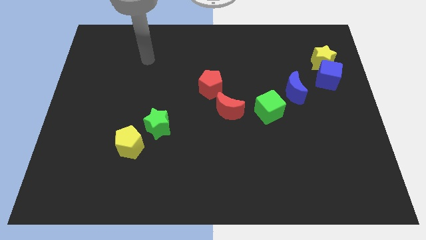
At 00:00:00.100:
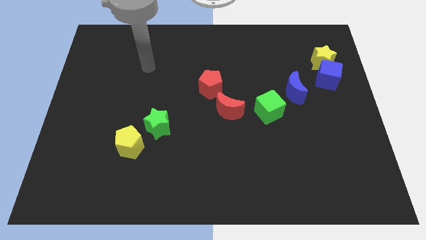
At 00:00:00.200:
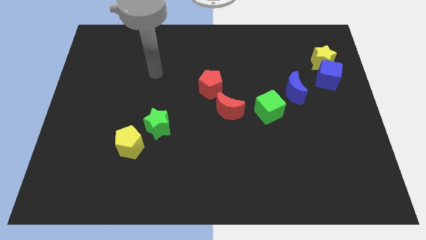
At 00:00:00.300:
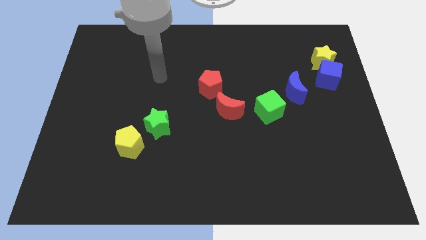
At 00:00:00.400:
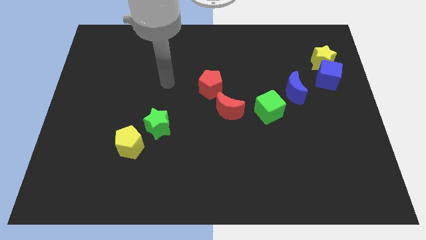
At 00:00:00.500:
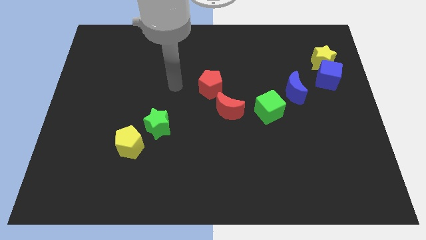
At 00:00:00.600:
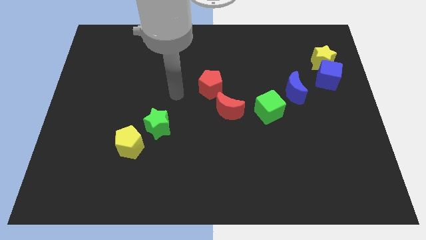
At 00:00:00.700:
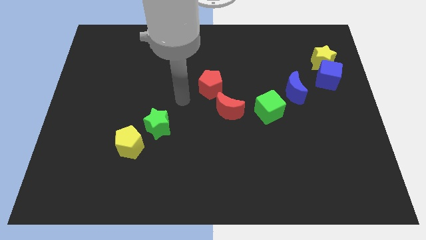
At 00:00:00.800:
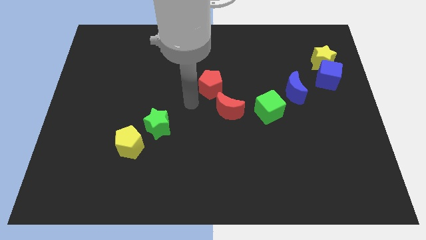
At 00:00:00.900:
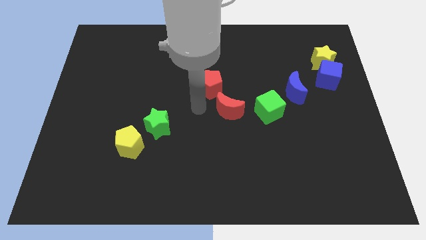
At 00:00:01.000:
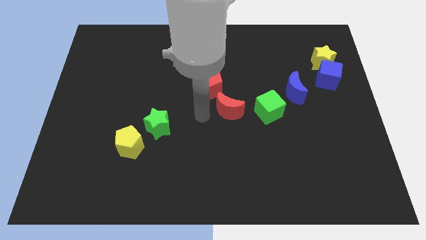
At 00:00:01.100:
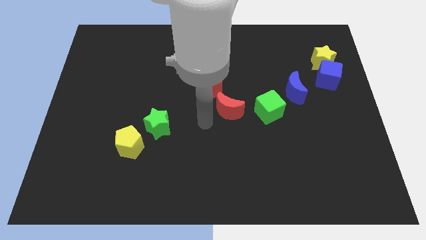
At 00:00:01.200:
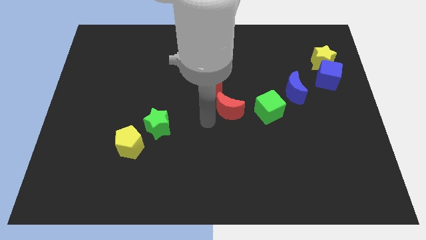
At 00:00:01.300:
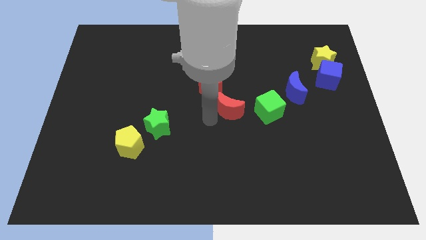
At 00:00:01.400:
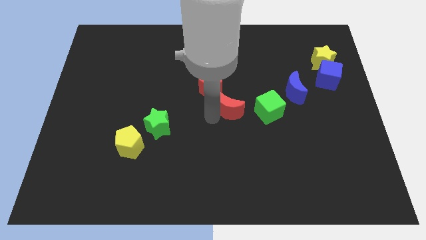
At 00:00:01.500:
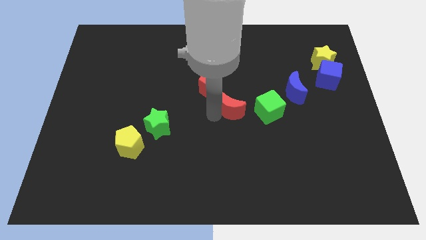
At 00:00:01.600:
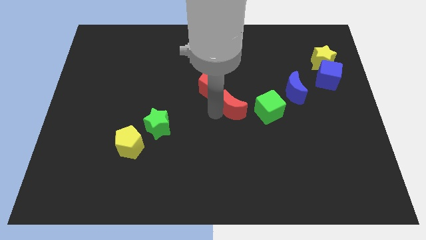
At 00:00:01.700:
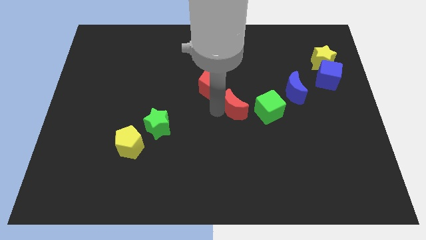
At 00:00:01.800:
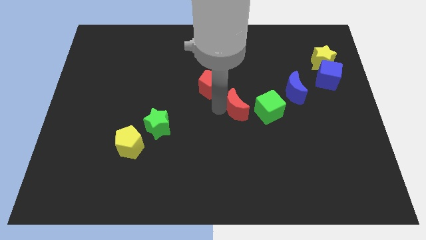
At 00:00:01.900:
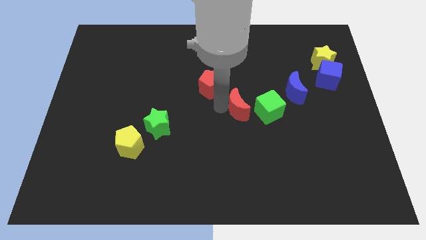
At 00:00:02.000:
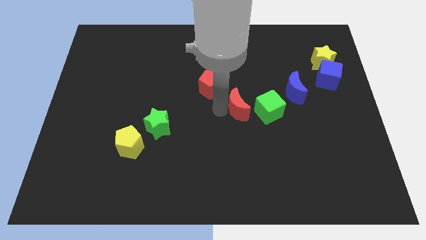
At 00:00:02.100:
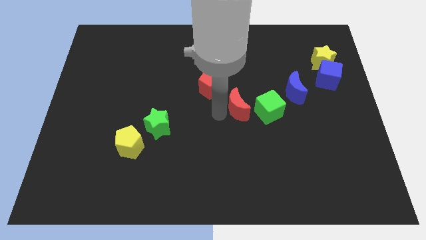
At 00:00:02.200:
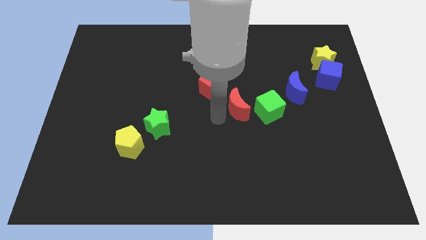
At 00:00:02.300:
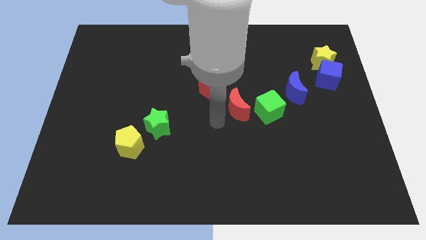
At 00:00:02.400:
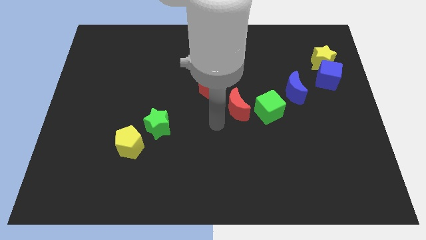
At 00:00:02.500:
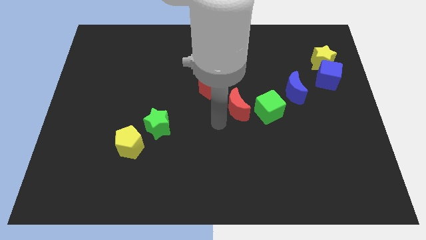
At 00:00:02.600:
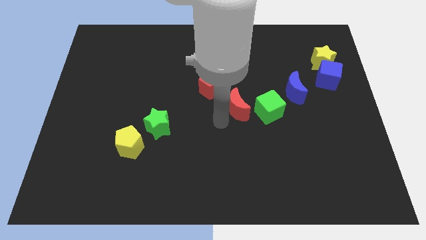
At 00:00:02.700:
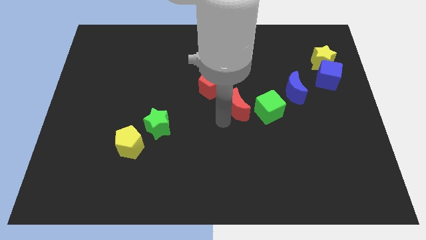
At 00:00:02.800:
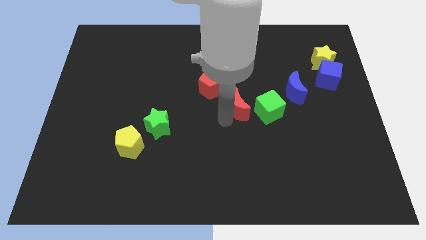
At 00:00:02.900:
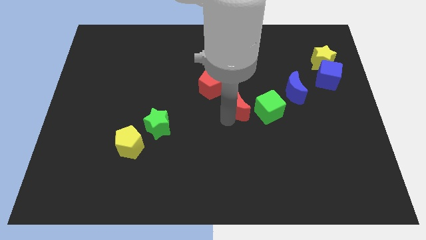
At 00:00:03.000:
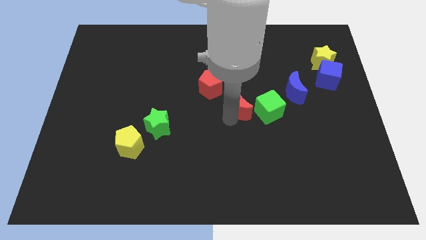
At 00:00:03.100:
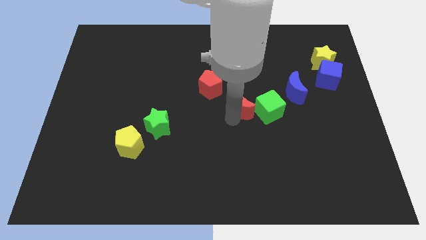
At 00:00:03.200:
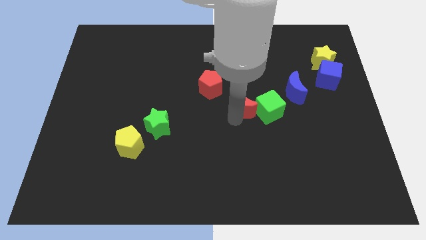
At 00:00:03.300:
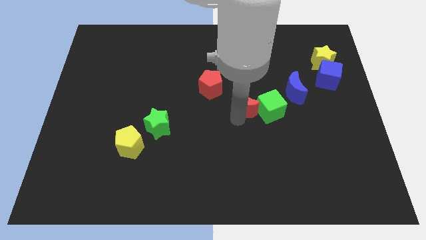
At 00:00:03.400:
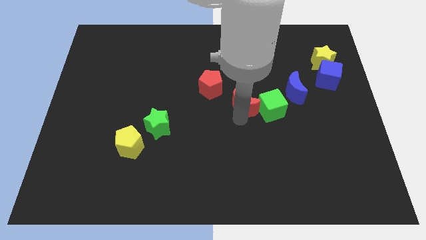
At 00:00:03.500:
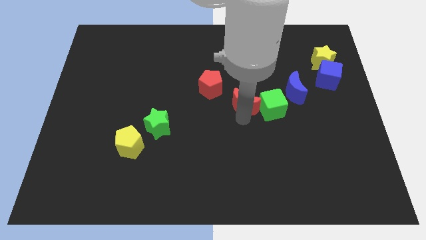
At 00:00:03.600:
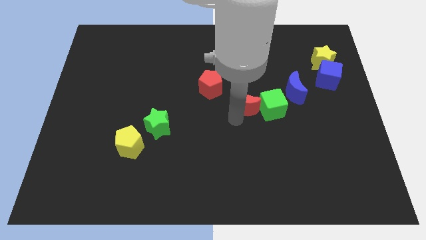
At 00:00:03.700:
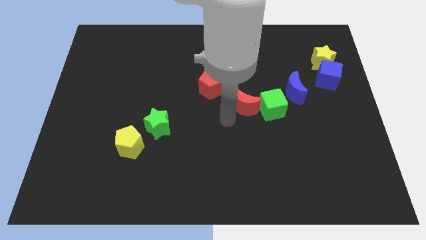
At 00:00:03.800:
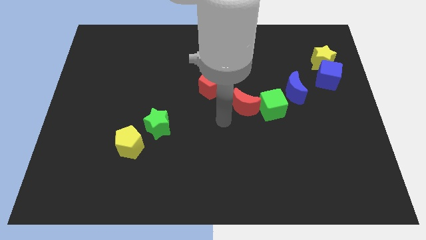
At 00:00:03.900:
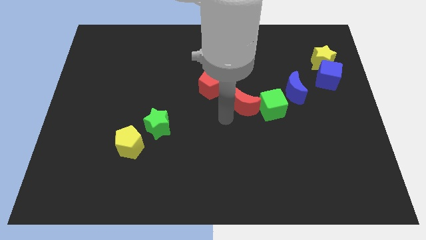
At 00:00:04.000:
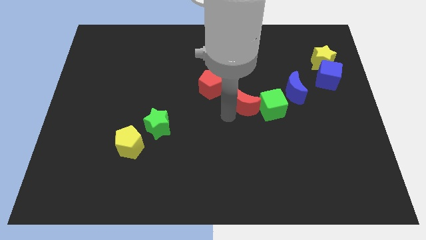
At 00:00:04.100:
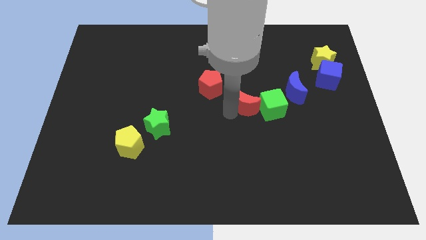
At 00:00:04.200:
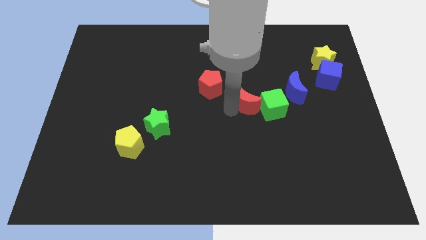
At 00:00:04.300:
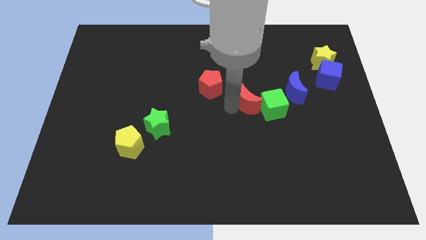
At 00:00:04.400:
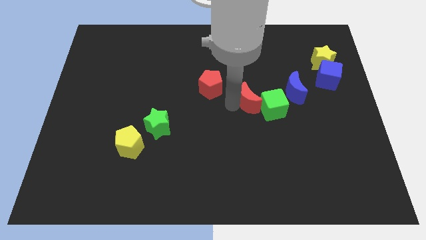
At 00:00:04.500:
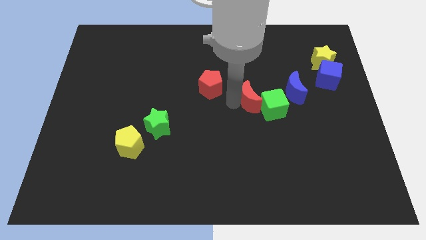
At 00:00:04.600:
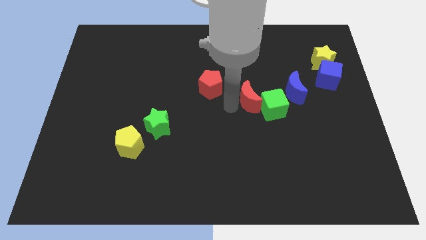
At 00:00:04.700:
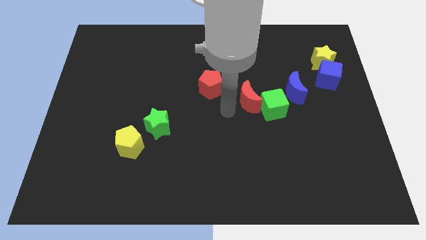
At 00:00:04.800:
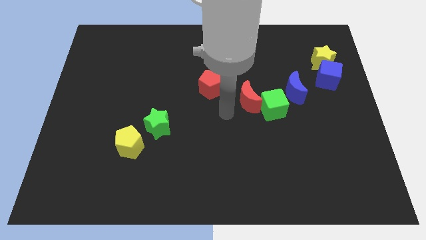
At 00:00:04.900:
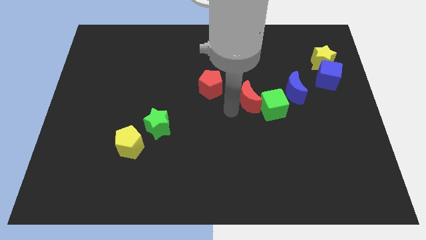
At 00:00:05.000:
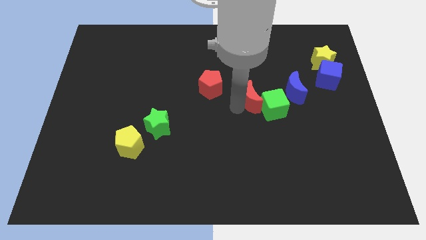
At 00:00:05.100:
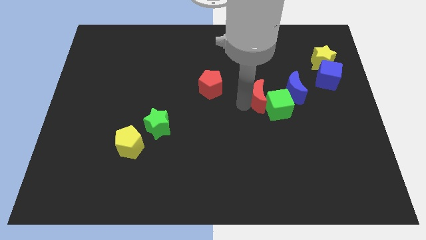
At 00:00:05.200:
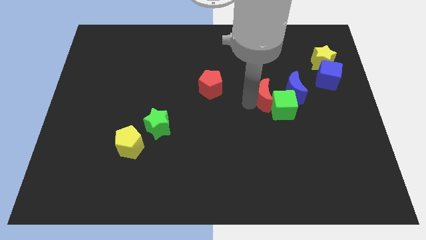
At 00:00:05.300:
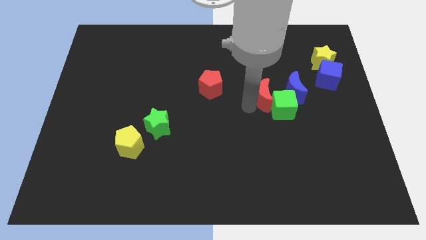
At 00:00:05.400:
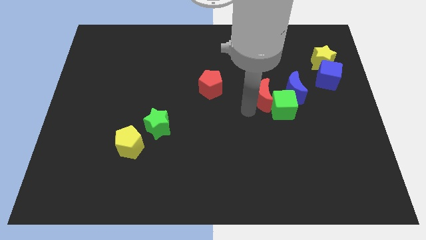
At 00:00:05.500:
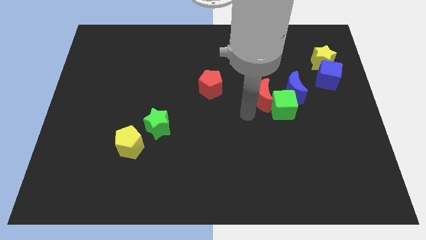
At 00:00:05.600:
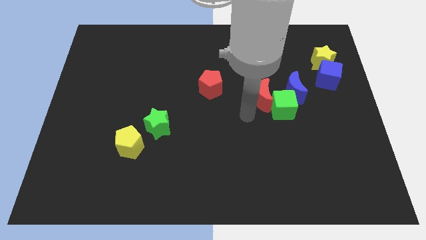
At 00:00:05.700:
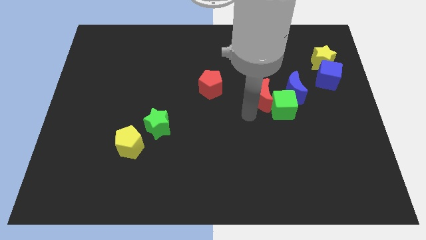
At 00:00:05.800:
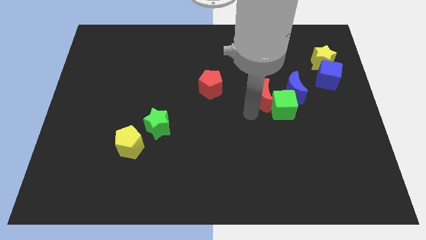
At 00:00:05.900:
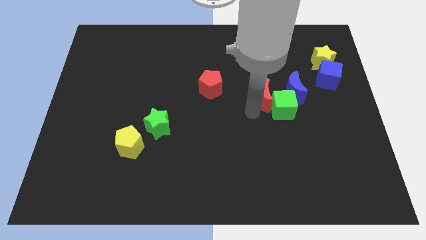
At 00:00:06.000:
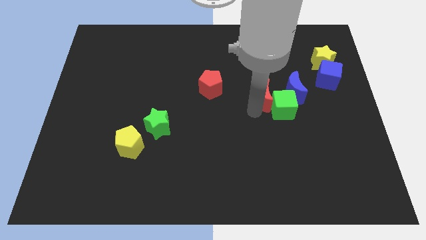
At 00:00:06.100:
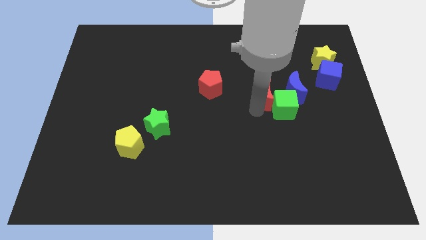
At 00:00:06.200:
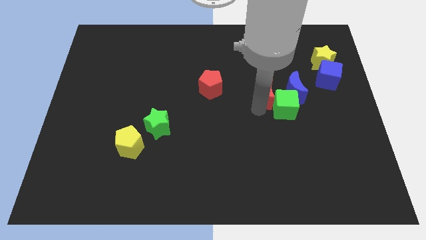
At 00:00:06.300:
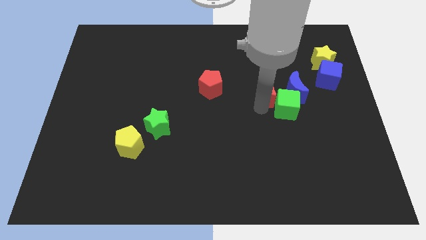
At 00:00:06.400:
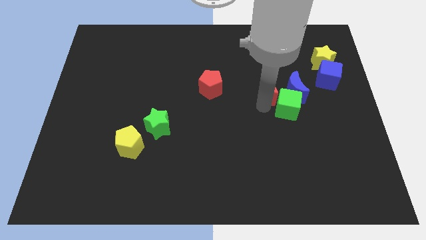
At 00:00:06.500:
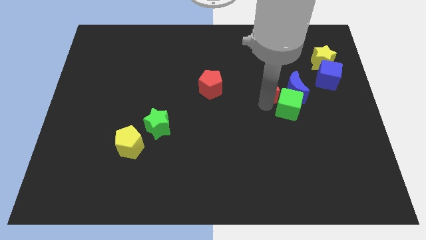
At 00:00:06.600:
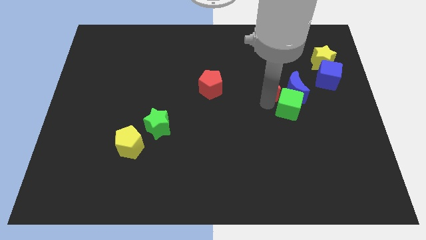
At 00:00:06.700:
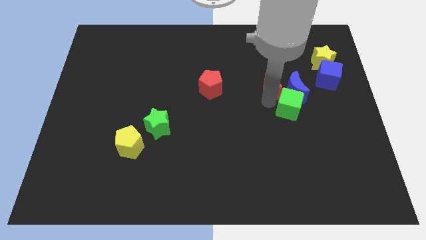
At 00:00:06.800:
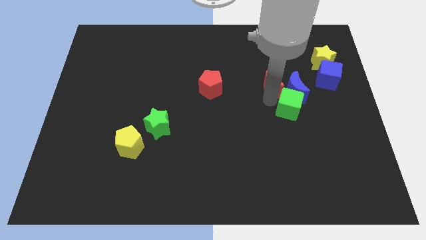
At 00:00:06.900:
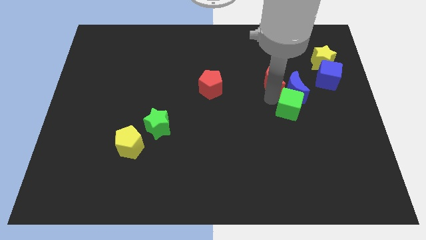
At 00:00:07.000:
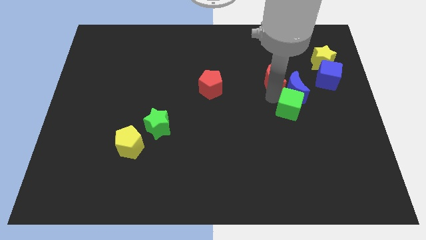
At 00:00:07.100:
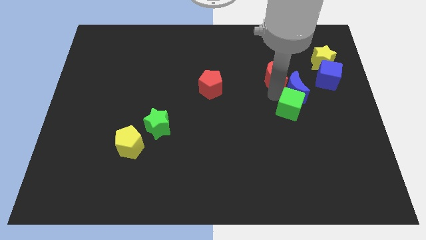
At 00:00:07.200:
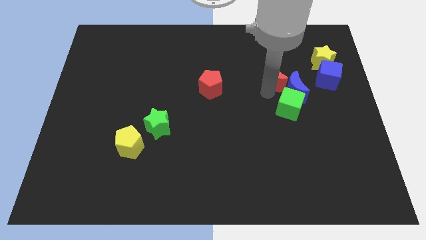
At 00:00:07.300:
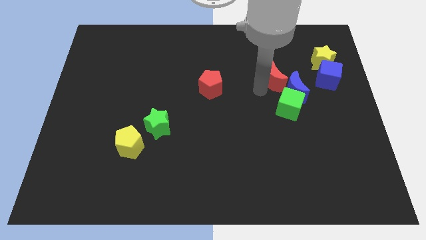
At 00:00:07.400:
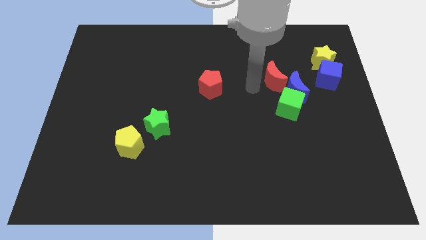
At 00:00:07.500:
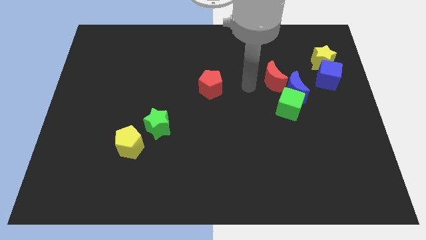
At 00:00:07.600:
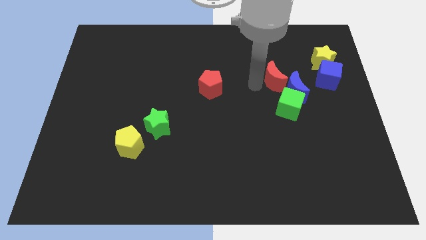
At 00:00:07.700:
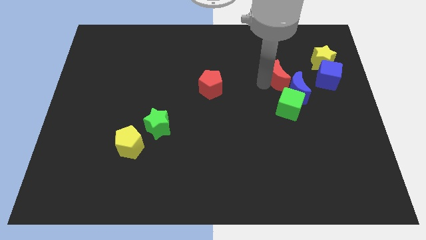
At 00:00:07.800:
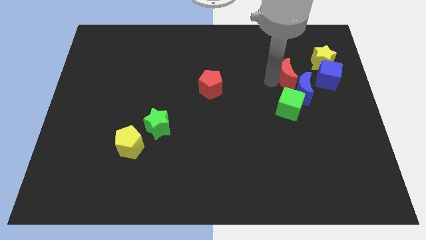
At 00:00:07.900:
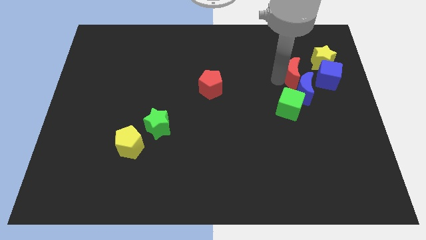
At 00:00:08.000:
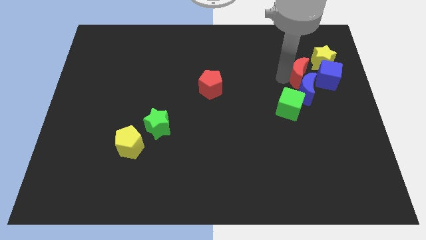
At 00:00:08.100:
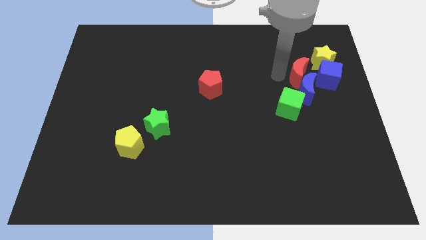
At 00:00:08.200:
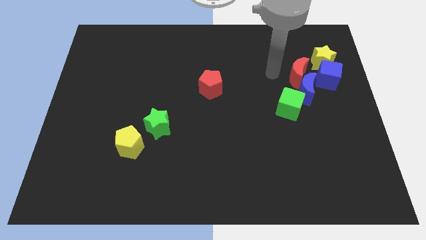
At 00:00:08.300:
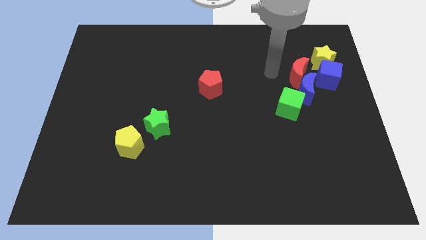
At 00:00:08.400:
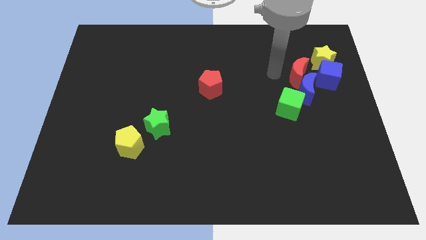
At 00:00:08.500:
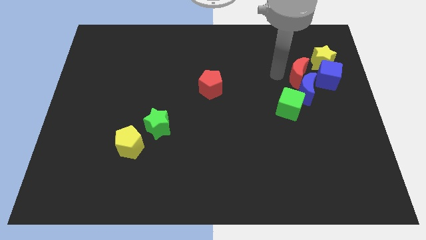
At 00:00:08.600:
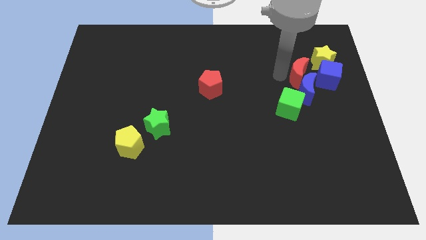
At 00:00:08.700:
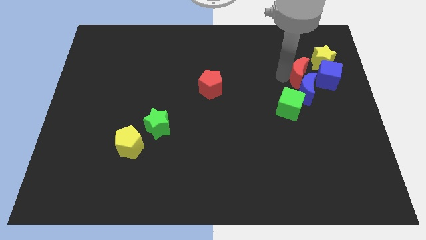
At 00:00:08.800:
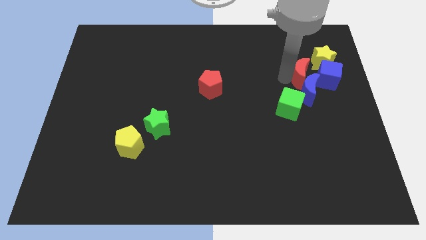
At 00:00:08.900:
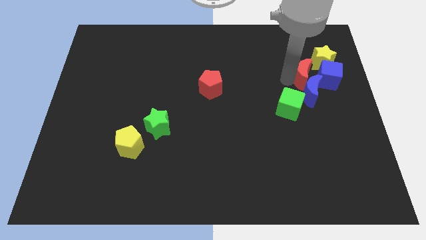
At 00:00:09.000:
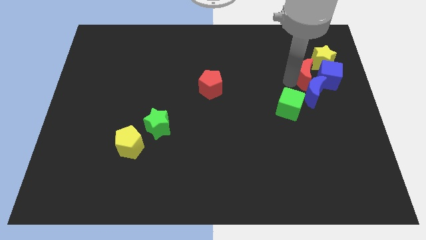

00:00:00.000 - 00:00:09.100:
move the red moon close to the blue cube
